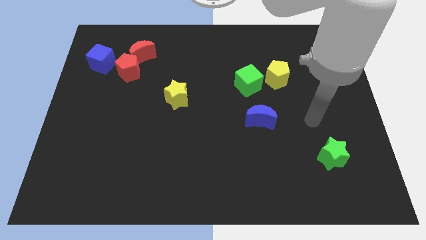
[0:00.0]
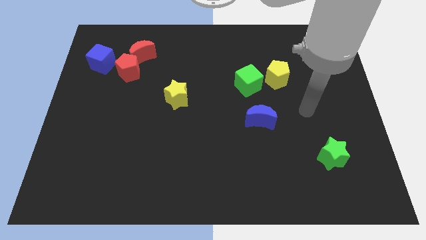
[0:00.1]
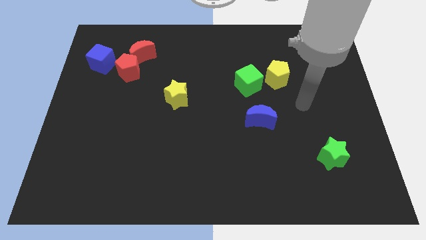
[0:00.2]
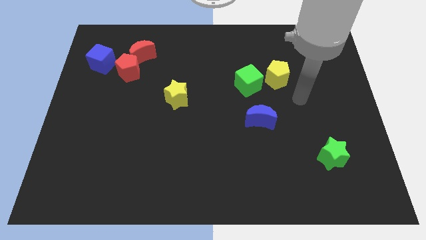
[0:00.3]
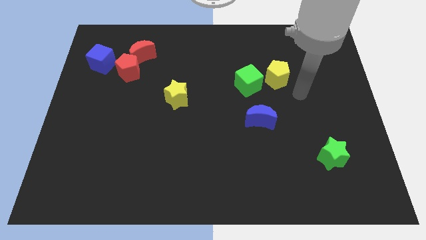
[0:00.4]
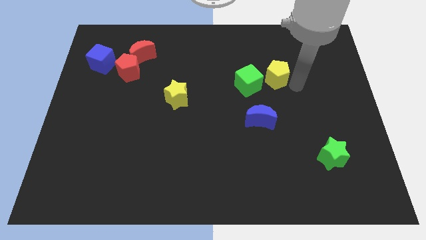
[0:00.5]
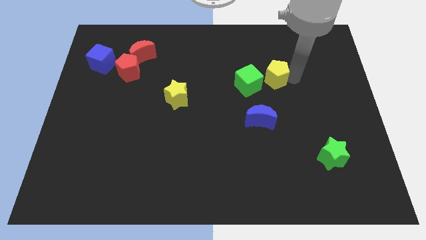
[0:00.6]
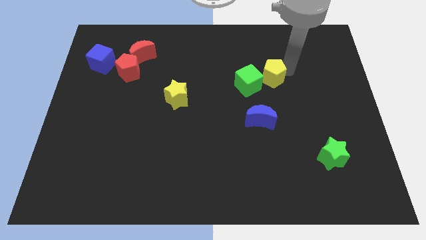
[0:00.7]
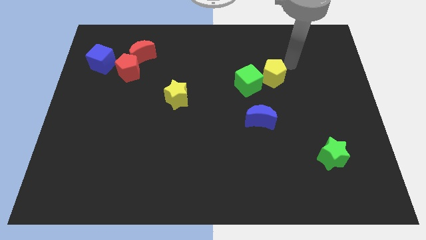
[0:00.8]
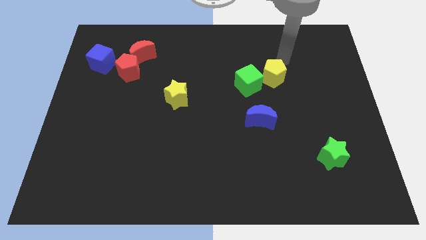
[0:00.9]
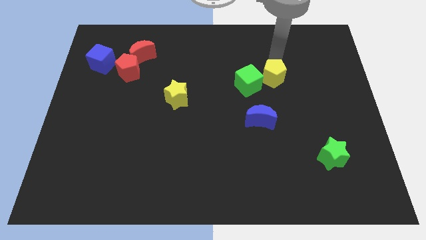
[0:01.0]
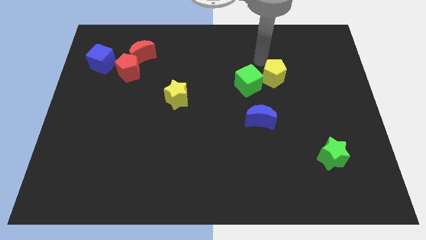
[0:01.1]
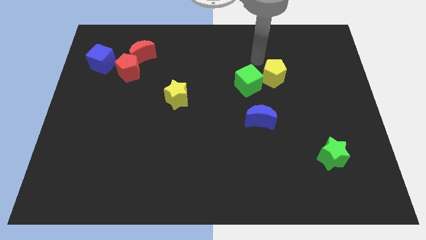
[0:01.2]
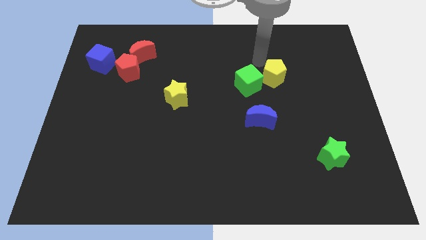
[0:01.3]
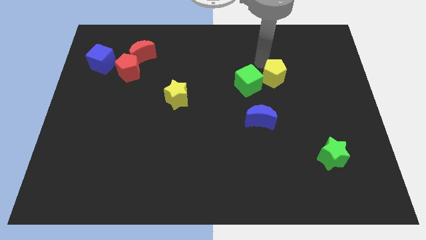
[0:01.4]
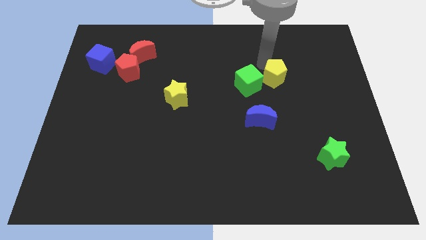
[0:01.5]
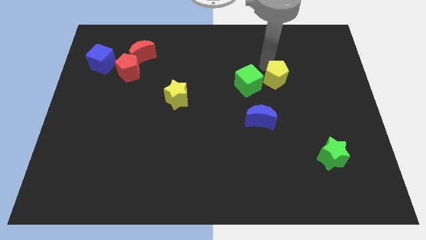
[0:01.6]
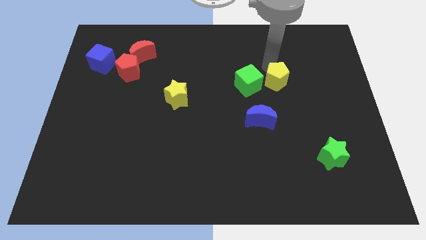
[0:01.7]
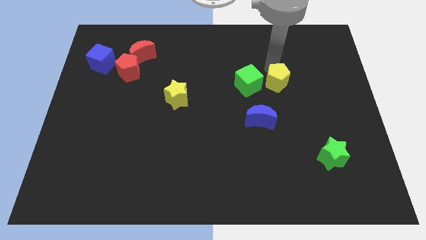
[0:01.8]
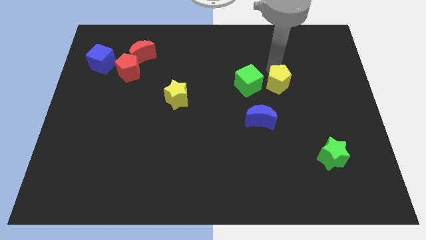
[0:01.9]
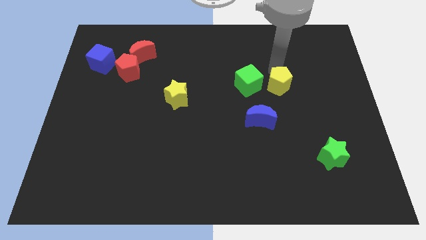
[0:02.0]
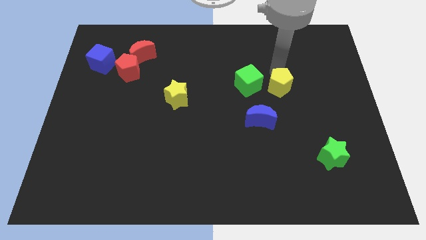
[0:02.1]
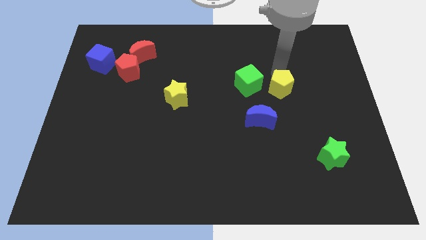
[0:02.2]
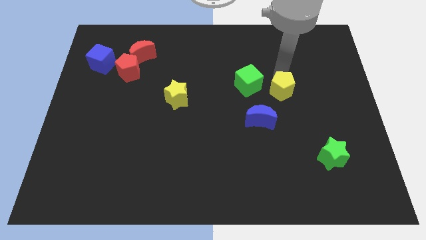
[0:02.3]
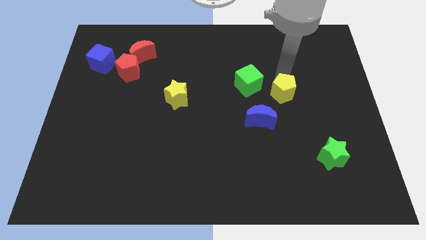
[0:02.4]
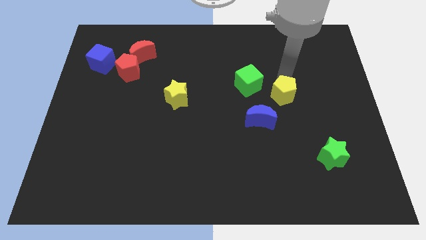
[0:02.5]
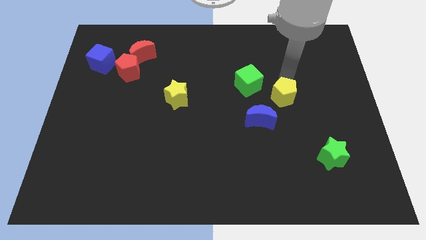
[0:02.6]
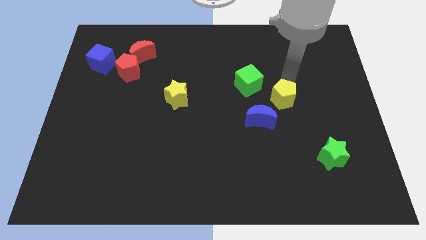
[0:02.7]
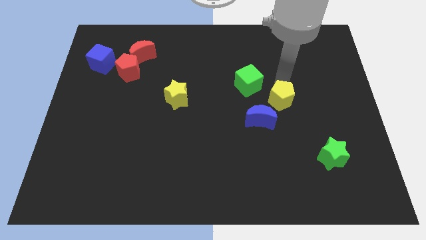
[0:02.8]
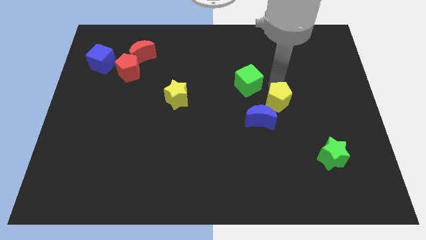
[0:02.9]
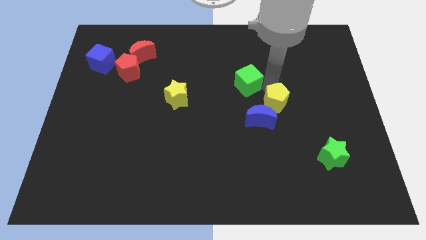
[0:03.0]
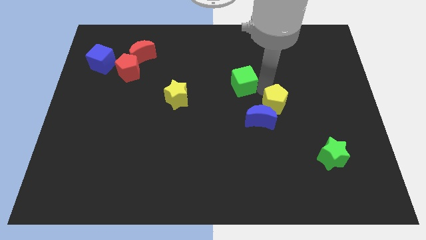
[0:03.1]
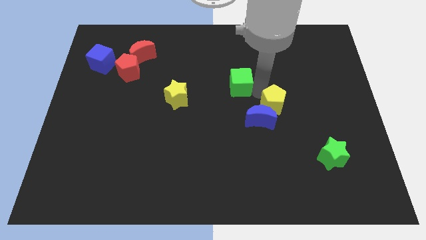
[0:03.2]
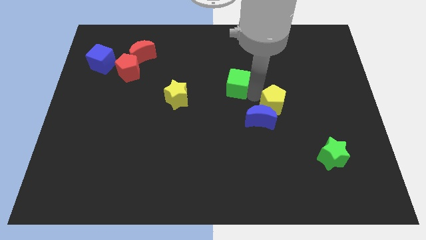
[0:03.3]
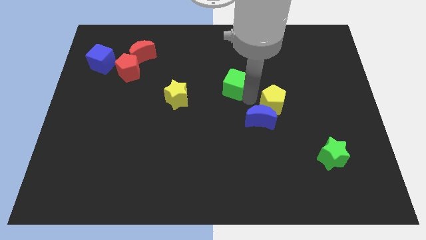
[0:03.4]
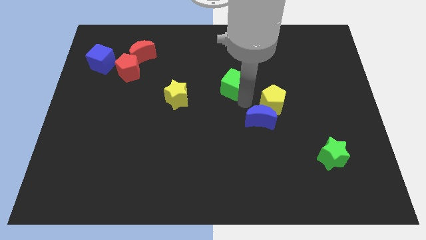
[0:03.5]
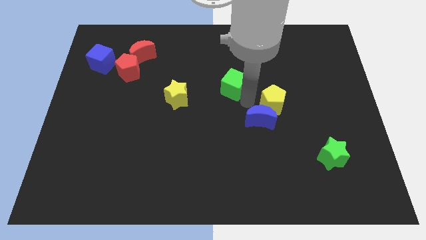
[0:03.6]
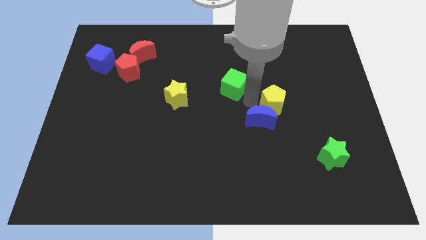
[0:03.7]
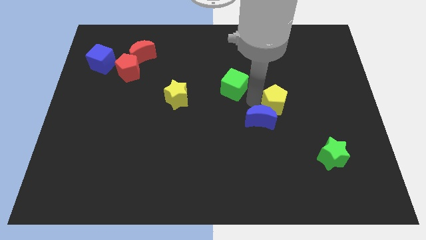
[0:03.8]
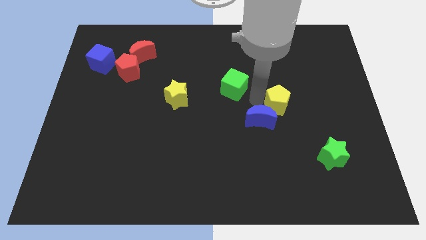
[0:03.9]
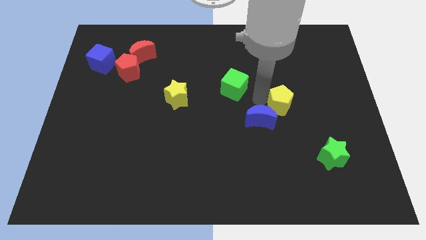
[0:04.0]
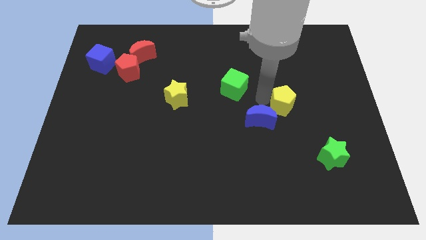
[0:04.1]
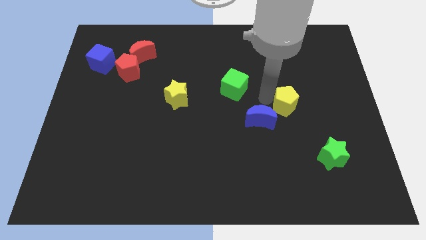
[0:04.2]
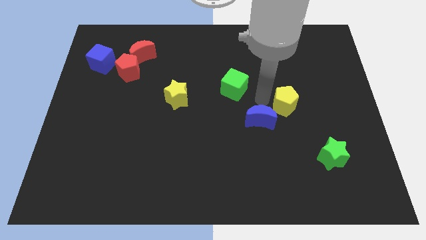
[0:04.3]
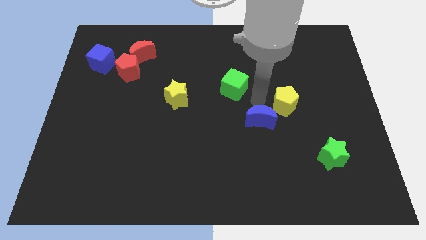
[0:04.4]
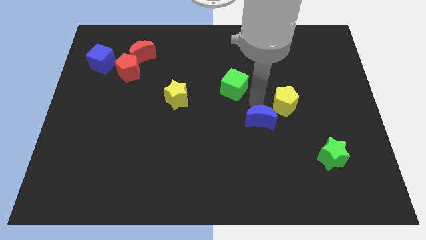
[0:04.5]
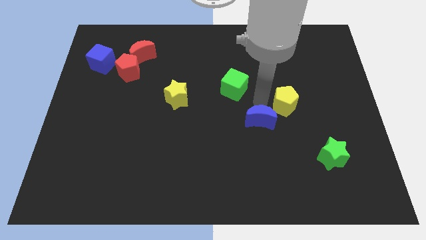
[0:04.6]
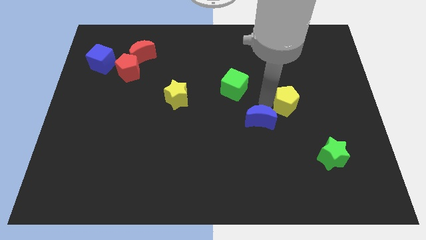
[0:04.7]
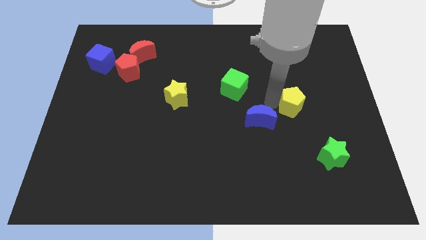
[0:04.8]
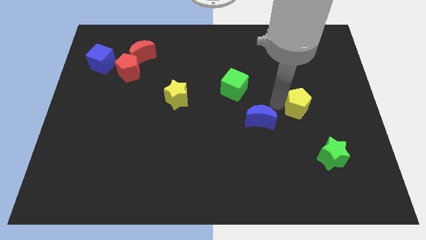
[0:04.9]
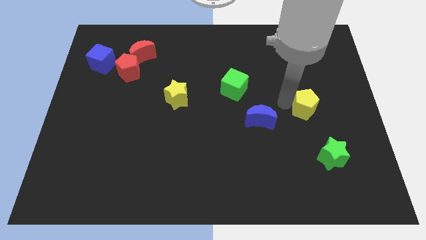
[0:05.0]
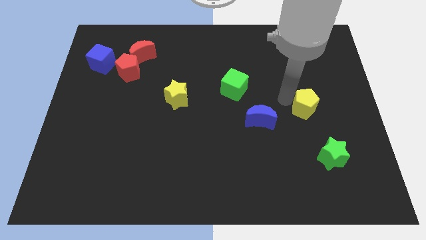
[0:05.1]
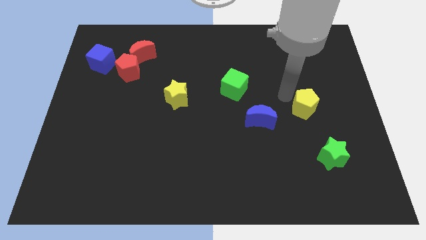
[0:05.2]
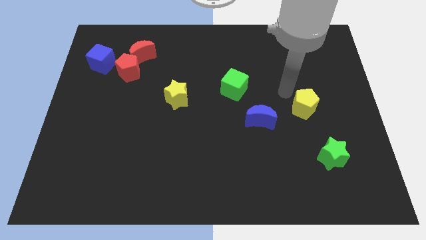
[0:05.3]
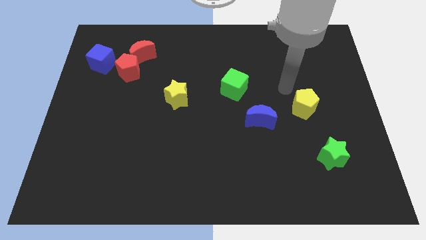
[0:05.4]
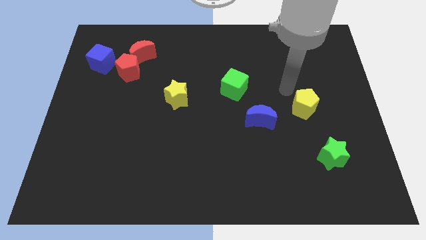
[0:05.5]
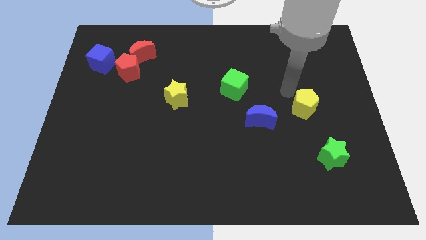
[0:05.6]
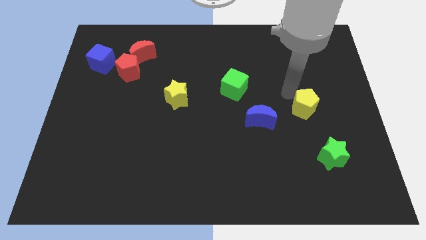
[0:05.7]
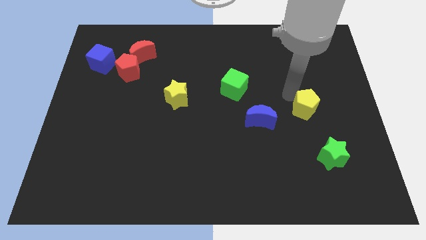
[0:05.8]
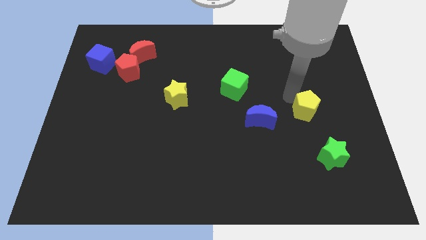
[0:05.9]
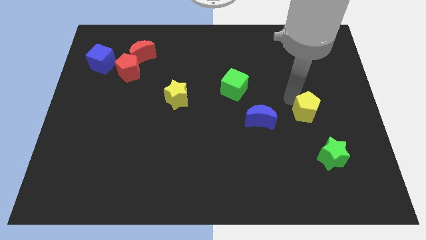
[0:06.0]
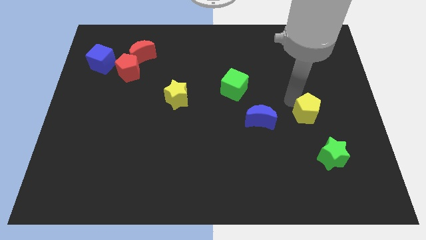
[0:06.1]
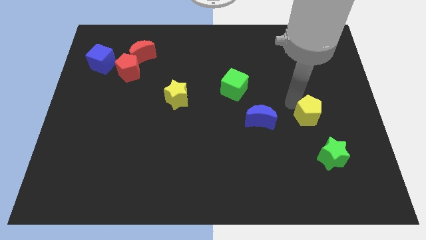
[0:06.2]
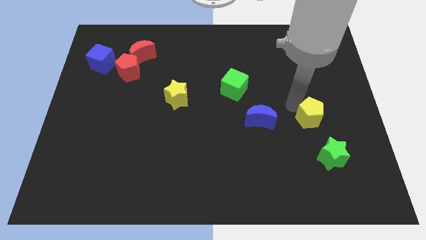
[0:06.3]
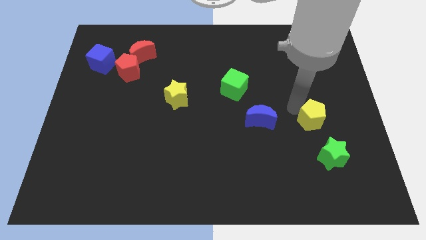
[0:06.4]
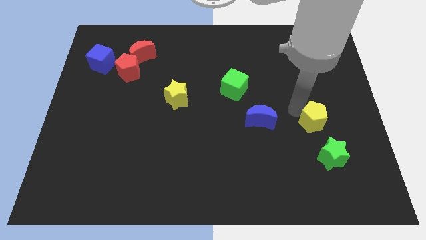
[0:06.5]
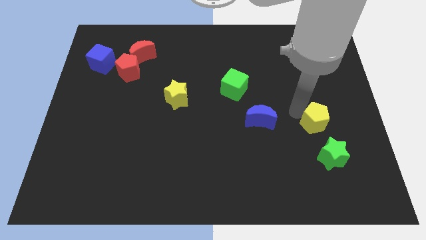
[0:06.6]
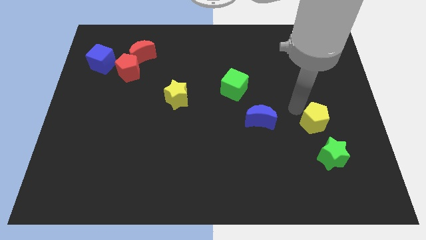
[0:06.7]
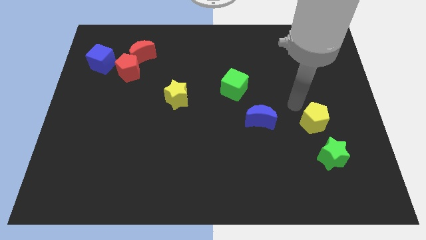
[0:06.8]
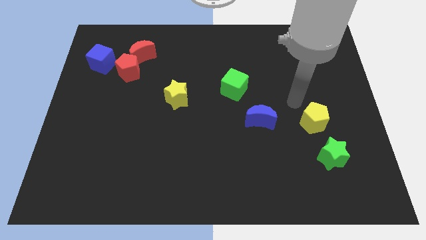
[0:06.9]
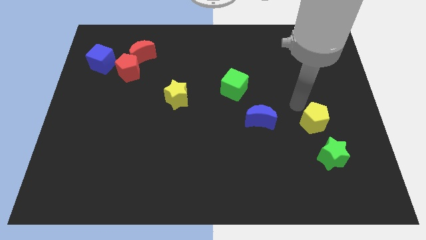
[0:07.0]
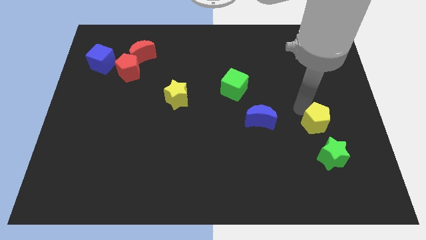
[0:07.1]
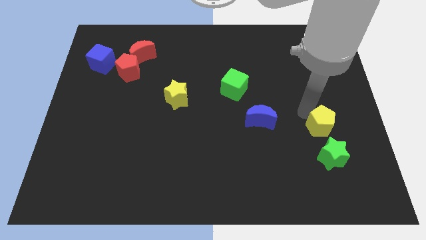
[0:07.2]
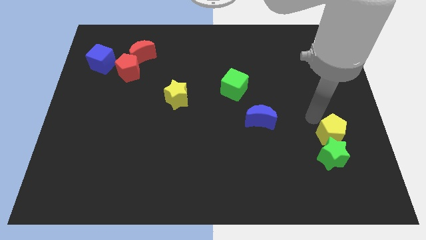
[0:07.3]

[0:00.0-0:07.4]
slide the yellow pentagon close to the green star
